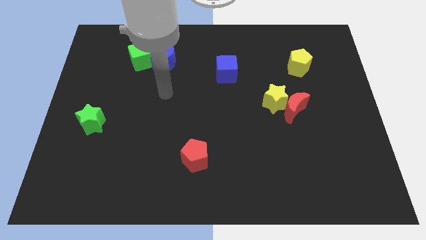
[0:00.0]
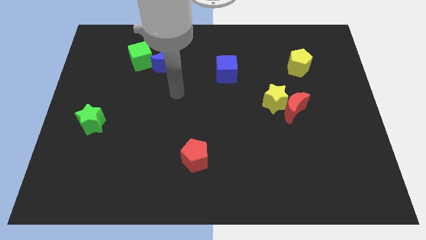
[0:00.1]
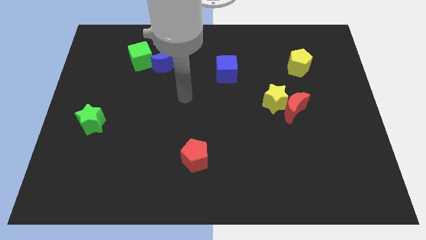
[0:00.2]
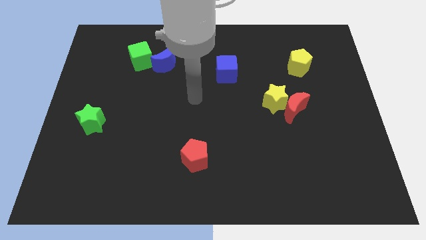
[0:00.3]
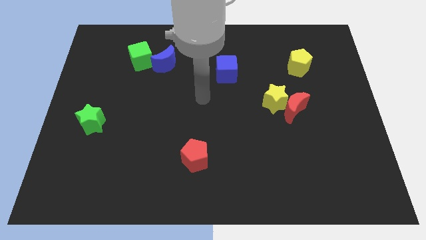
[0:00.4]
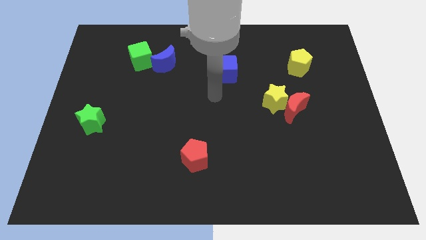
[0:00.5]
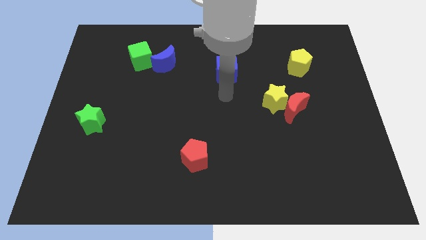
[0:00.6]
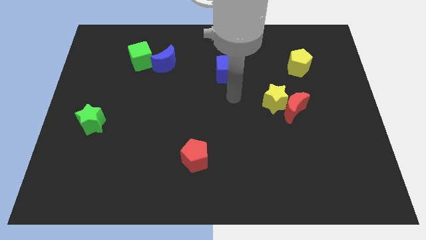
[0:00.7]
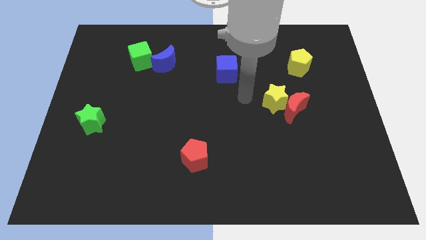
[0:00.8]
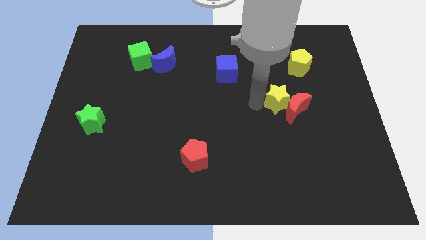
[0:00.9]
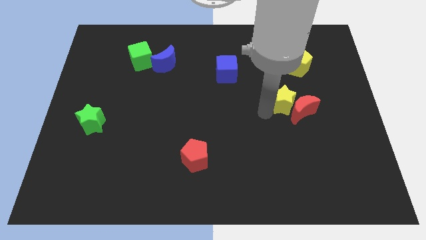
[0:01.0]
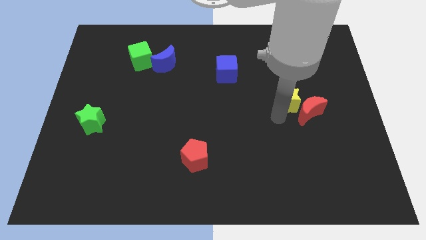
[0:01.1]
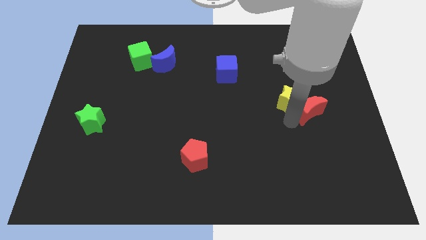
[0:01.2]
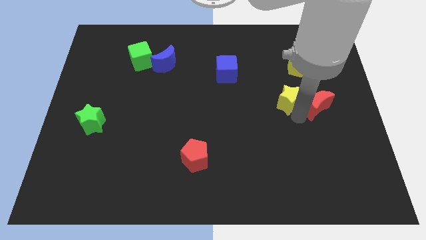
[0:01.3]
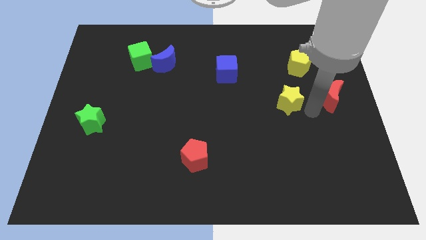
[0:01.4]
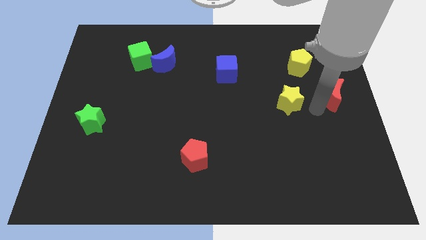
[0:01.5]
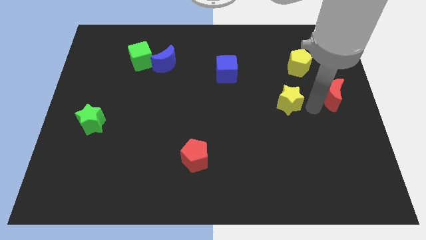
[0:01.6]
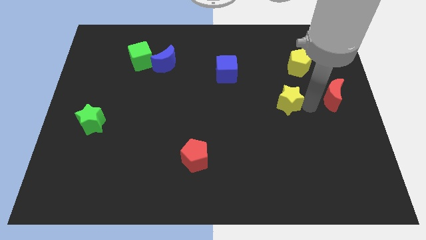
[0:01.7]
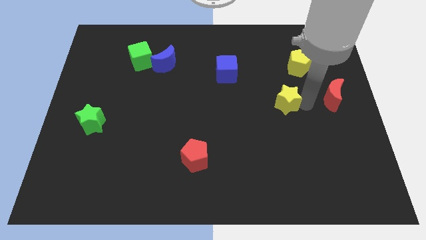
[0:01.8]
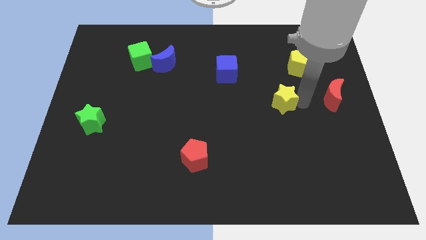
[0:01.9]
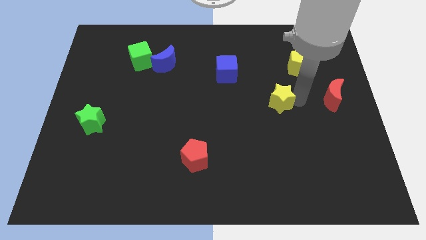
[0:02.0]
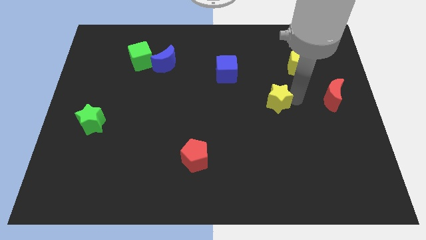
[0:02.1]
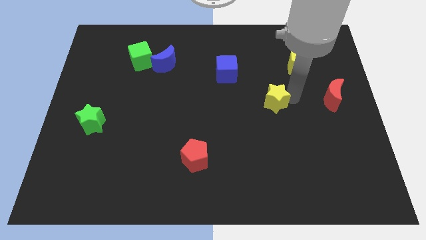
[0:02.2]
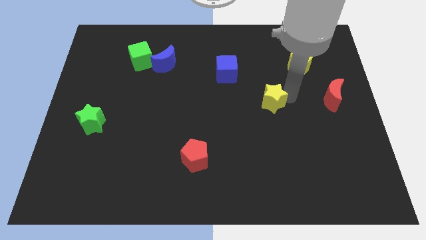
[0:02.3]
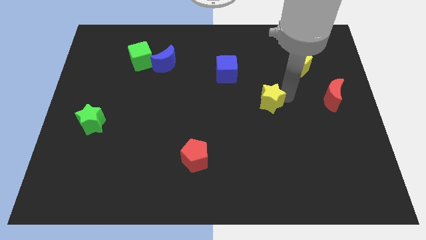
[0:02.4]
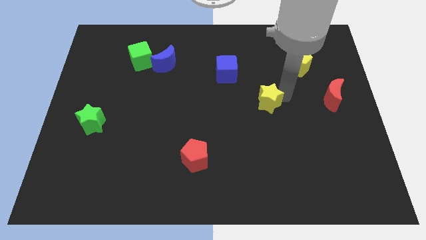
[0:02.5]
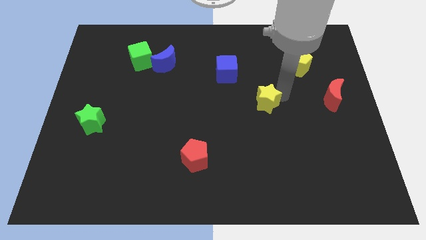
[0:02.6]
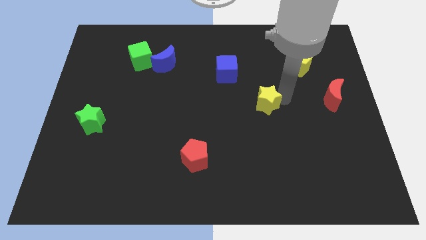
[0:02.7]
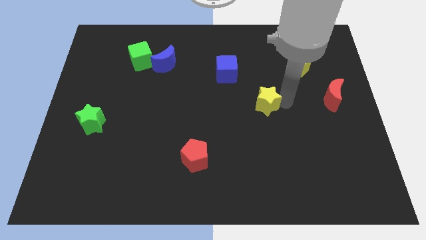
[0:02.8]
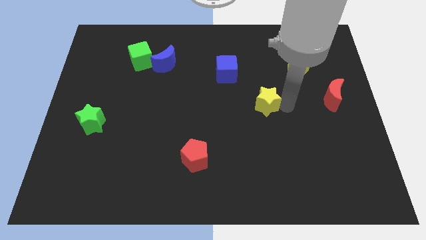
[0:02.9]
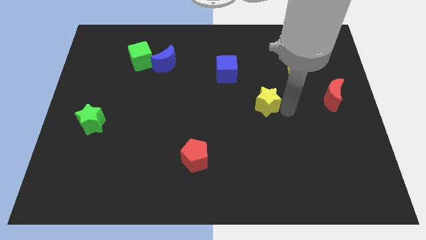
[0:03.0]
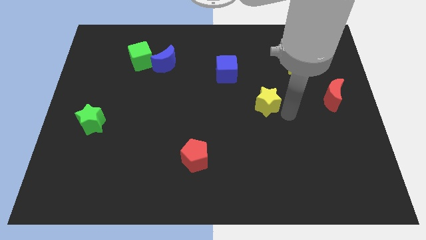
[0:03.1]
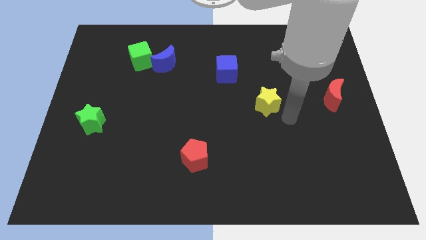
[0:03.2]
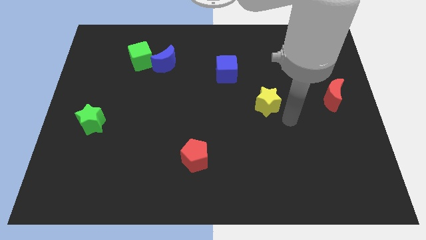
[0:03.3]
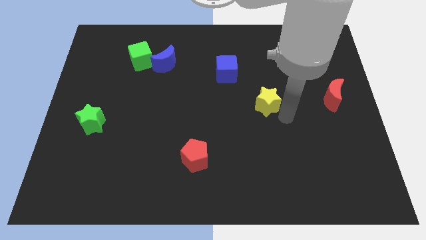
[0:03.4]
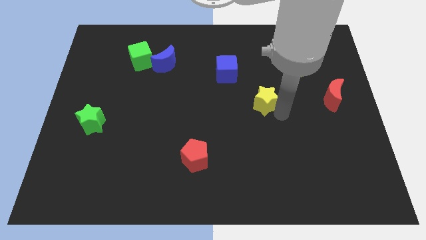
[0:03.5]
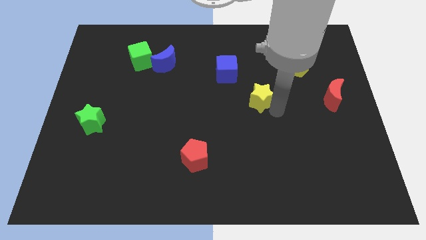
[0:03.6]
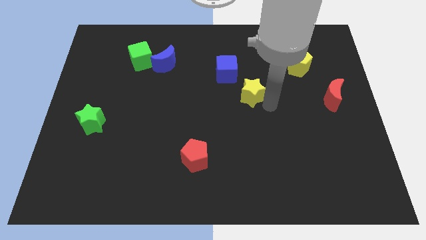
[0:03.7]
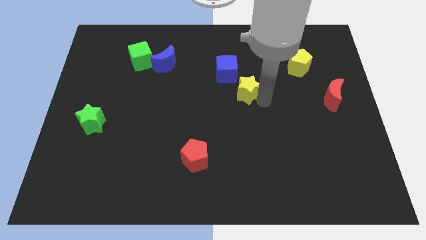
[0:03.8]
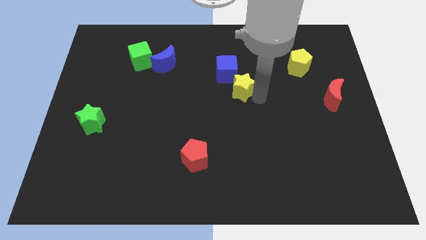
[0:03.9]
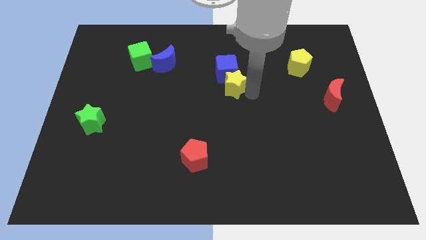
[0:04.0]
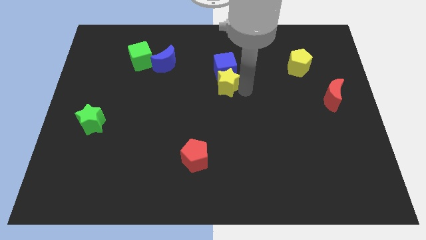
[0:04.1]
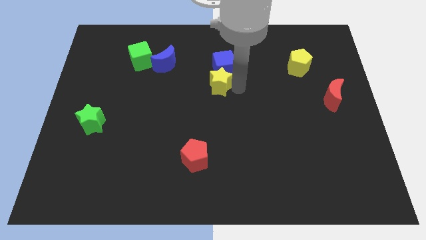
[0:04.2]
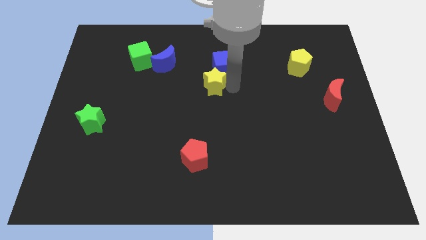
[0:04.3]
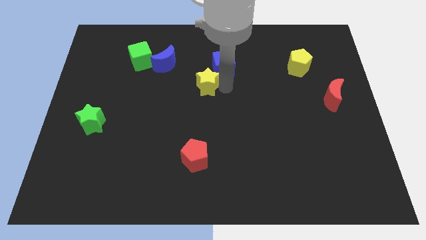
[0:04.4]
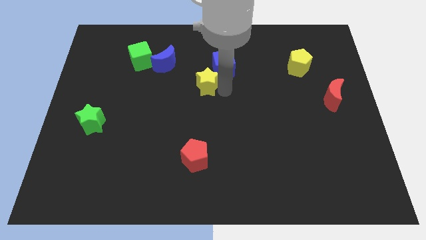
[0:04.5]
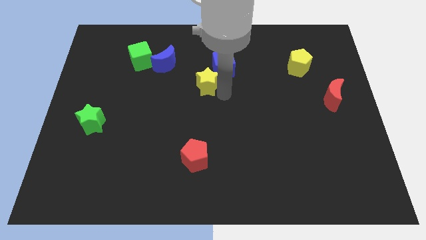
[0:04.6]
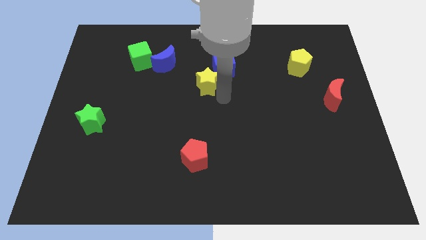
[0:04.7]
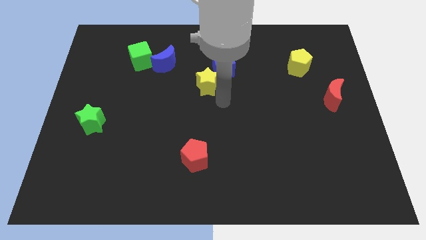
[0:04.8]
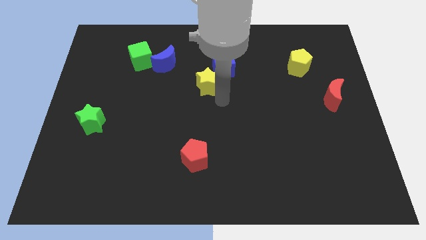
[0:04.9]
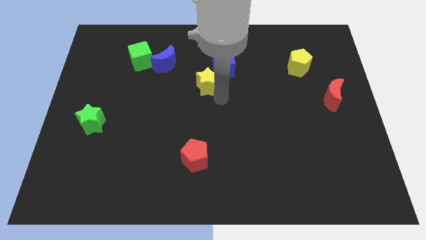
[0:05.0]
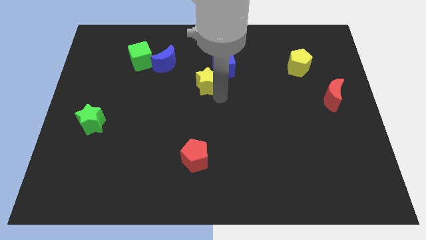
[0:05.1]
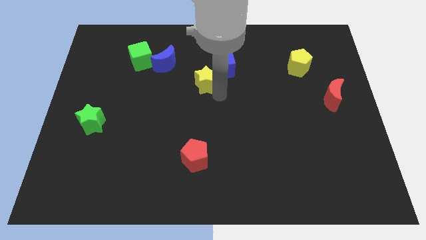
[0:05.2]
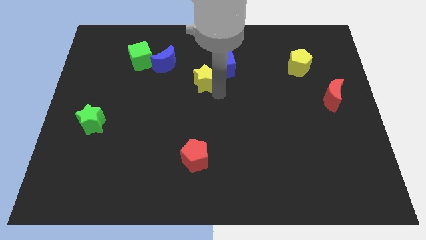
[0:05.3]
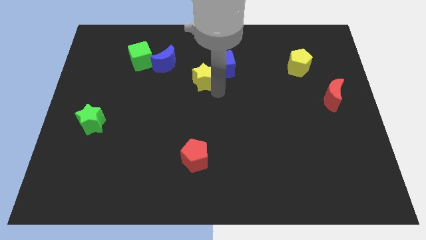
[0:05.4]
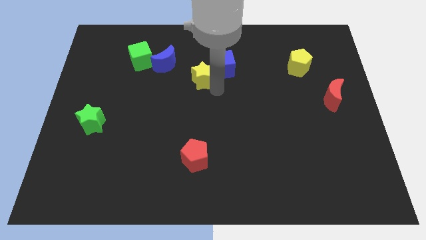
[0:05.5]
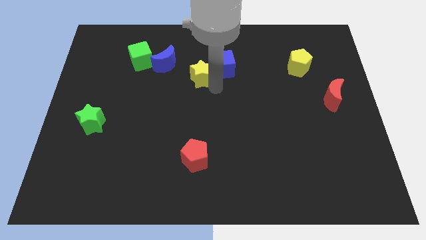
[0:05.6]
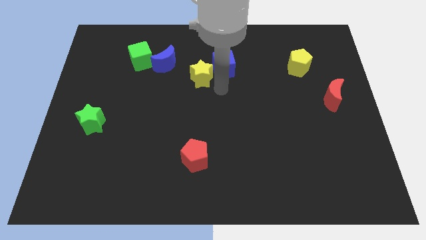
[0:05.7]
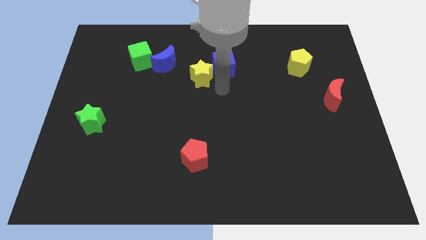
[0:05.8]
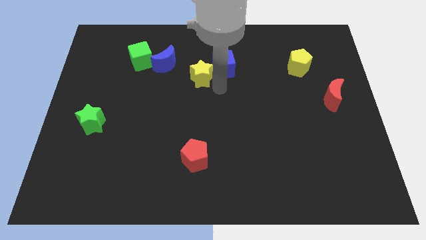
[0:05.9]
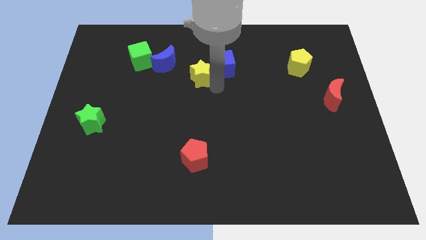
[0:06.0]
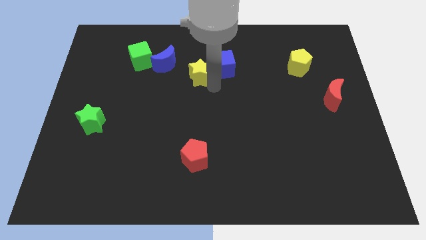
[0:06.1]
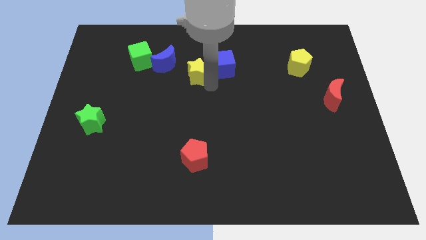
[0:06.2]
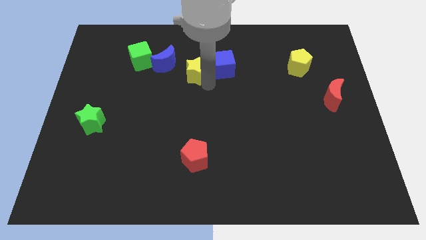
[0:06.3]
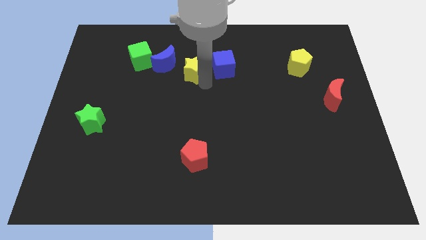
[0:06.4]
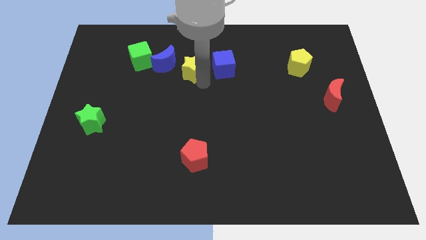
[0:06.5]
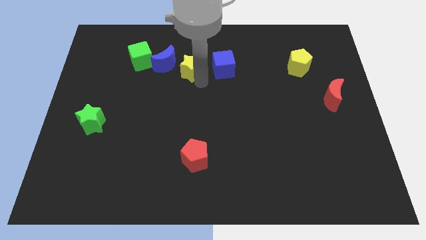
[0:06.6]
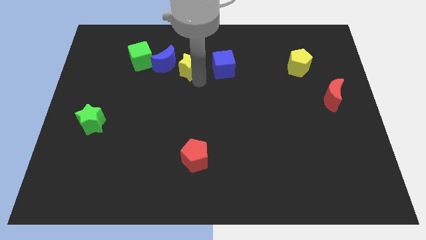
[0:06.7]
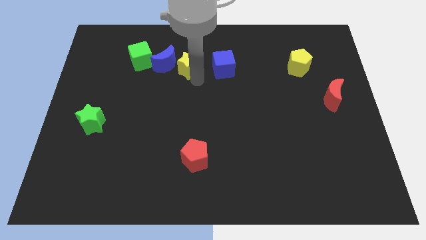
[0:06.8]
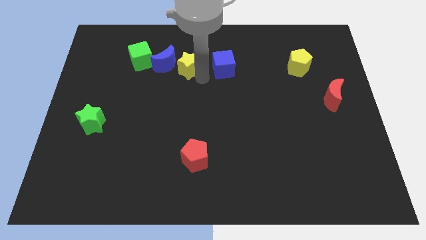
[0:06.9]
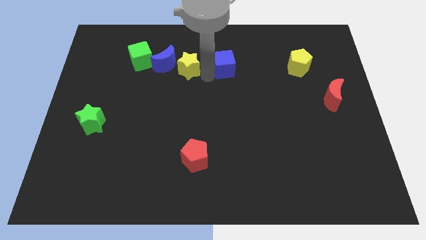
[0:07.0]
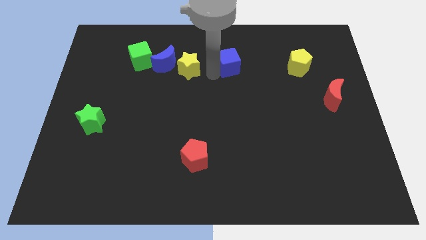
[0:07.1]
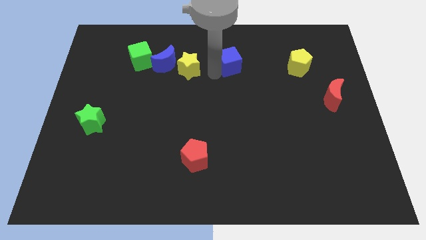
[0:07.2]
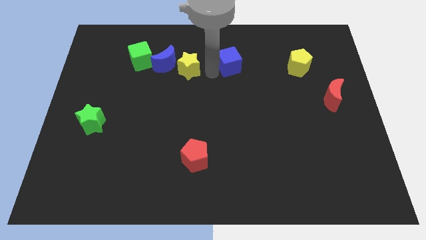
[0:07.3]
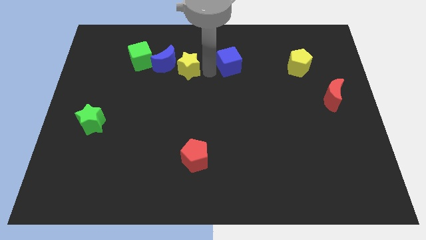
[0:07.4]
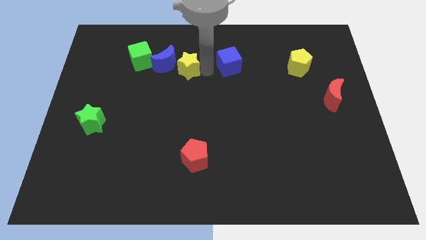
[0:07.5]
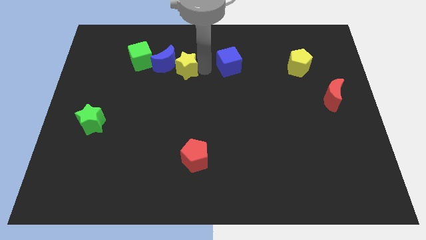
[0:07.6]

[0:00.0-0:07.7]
slide the yellow star next to the blue moon
